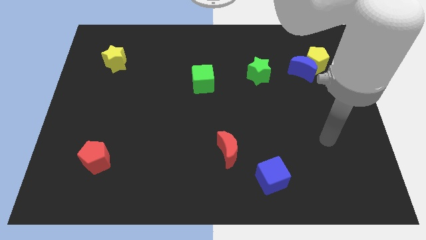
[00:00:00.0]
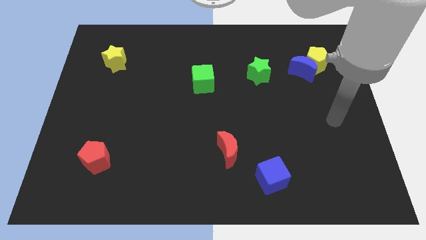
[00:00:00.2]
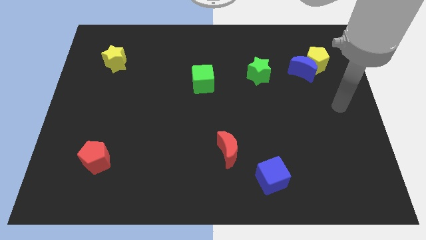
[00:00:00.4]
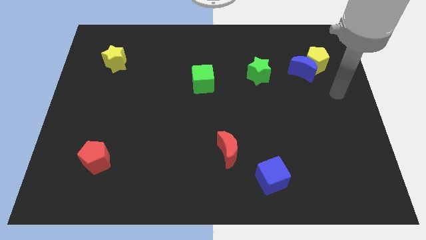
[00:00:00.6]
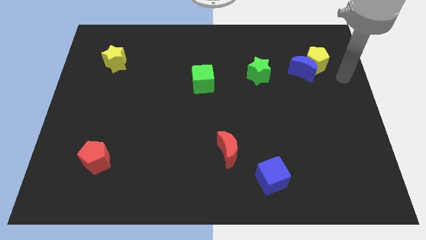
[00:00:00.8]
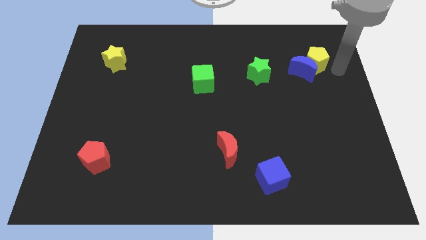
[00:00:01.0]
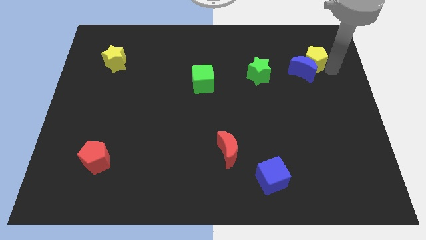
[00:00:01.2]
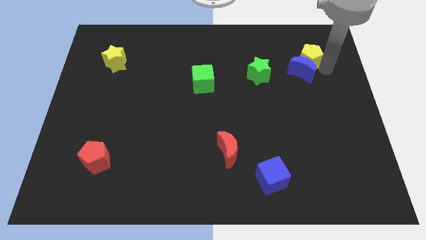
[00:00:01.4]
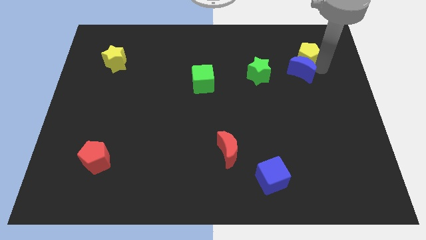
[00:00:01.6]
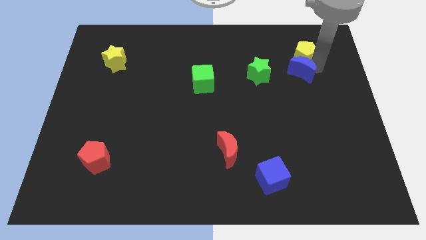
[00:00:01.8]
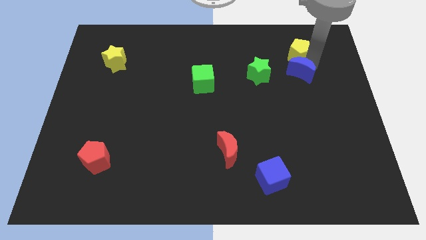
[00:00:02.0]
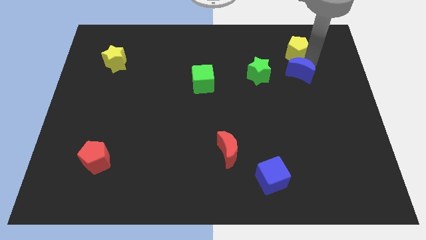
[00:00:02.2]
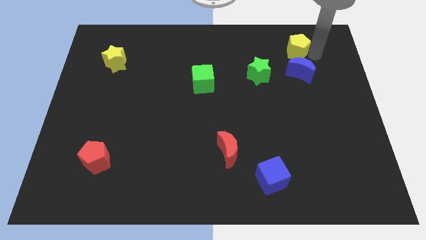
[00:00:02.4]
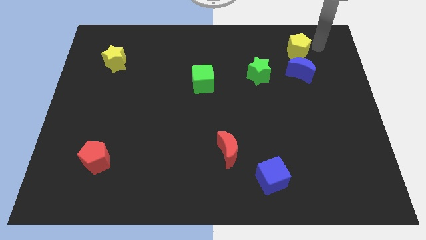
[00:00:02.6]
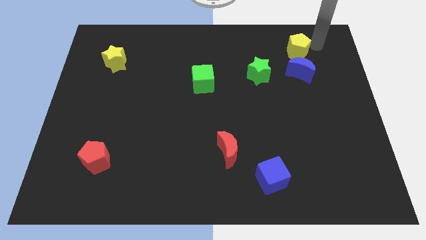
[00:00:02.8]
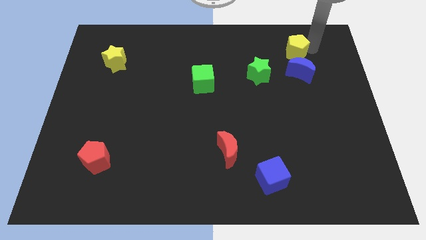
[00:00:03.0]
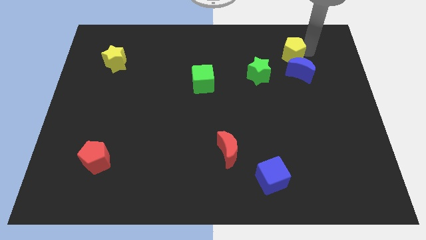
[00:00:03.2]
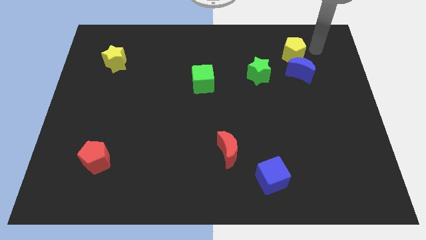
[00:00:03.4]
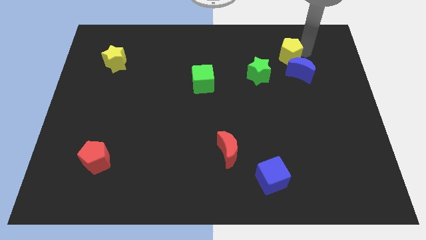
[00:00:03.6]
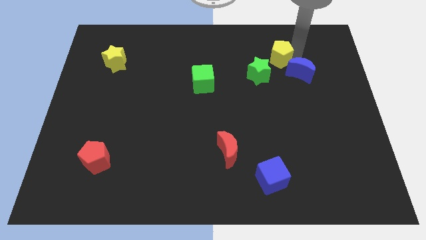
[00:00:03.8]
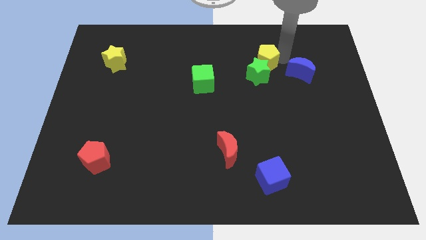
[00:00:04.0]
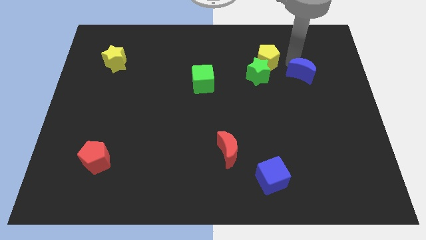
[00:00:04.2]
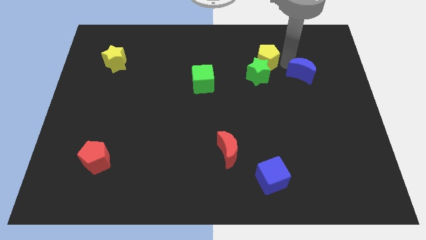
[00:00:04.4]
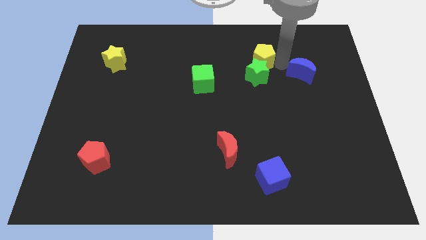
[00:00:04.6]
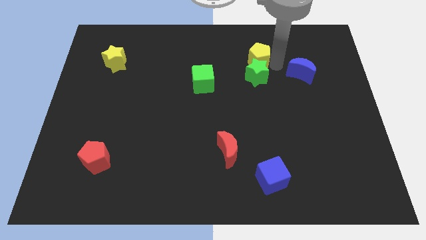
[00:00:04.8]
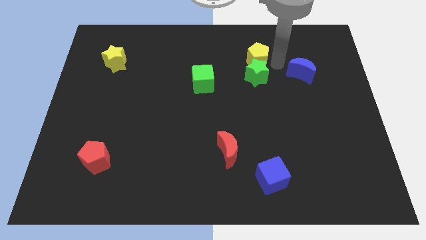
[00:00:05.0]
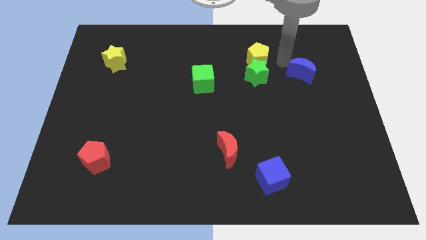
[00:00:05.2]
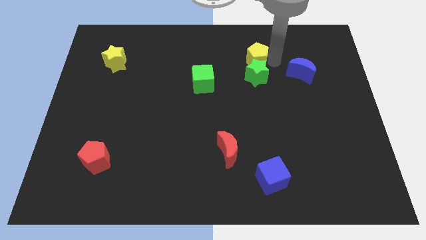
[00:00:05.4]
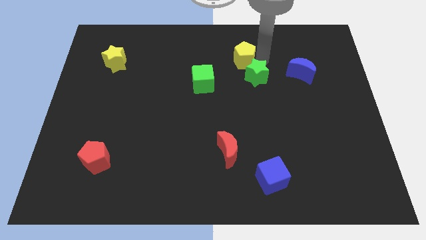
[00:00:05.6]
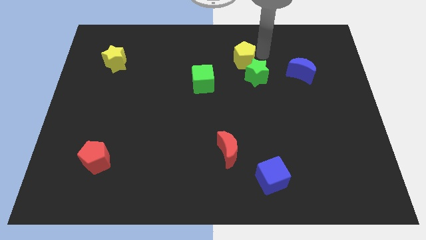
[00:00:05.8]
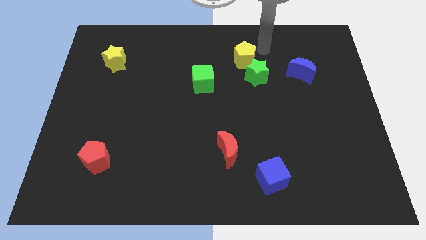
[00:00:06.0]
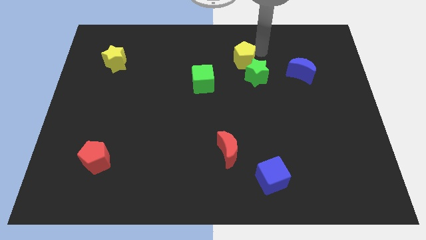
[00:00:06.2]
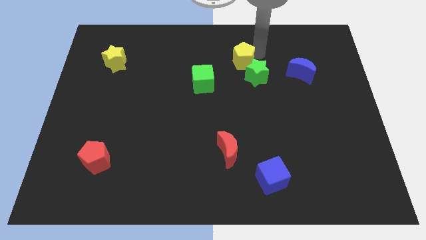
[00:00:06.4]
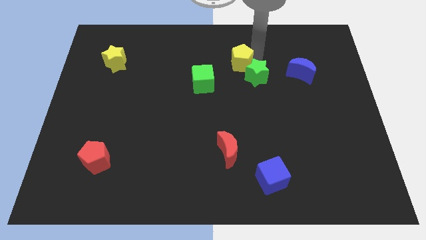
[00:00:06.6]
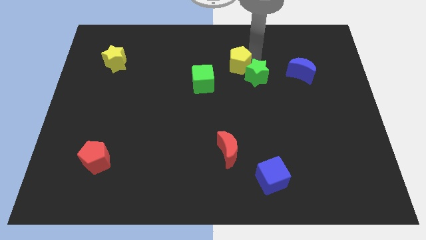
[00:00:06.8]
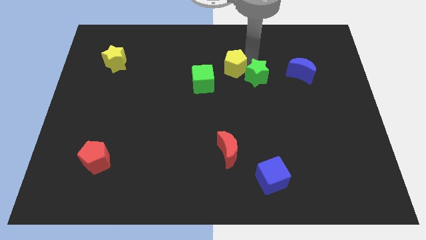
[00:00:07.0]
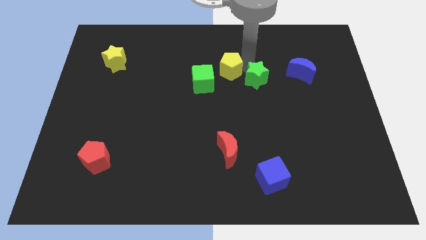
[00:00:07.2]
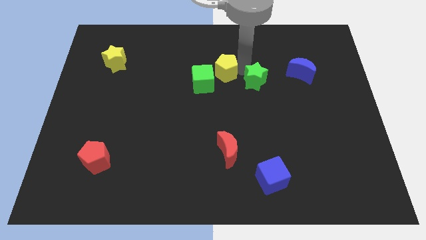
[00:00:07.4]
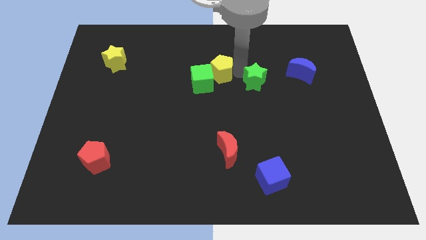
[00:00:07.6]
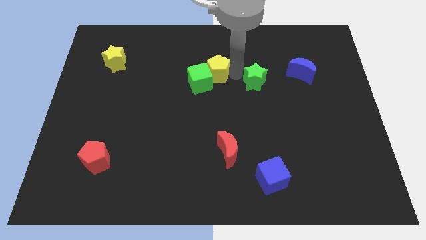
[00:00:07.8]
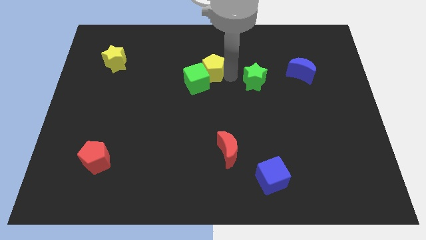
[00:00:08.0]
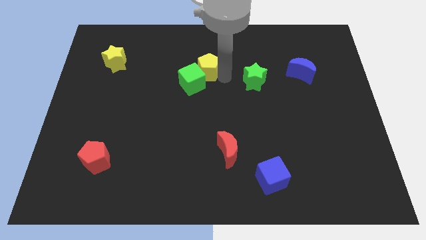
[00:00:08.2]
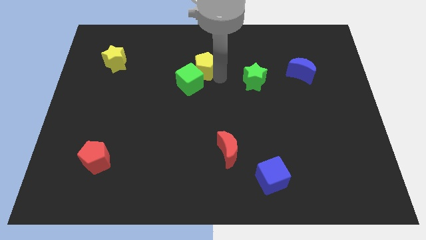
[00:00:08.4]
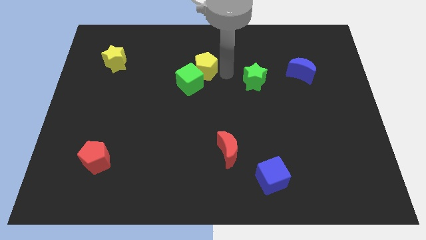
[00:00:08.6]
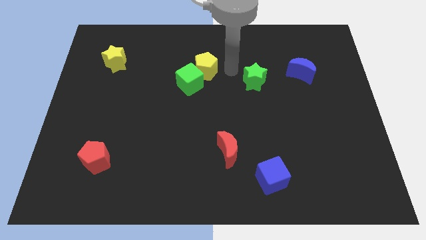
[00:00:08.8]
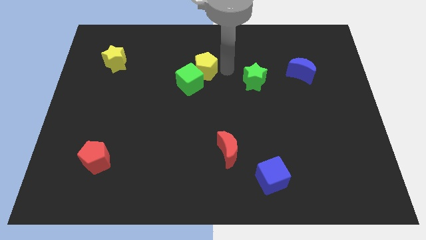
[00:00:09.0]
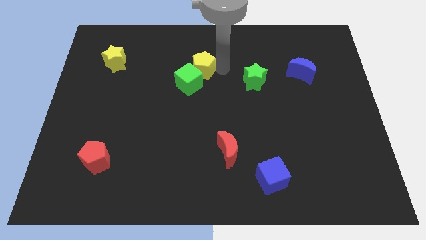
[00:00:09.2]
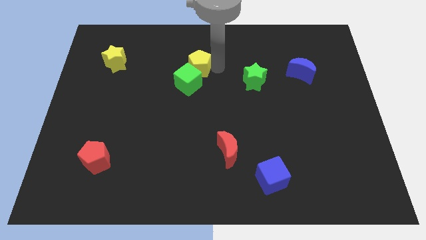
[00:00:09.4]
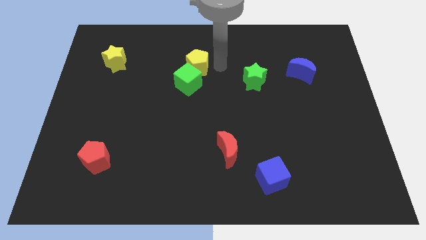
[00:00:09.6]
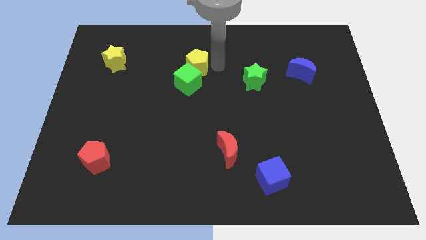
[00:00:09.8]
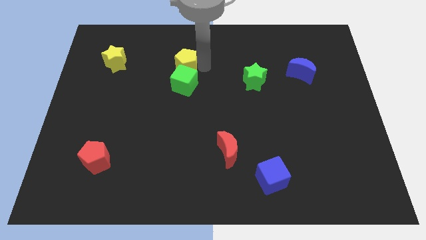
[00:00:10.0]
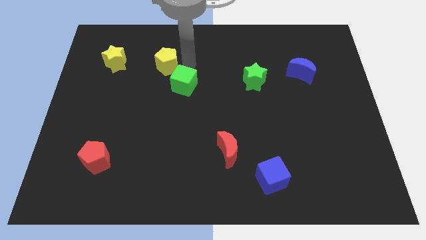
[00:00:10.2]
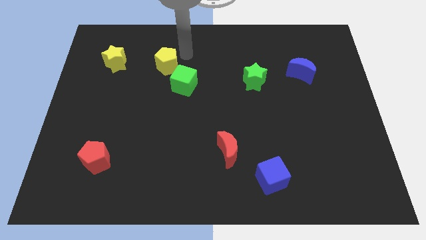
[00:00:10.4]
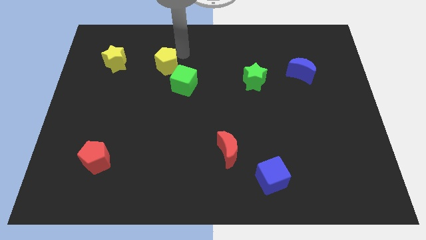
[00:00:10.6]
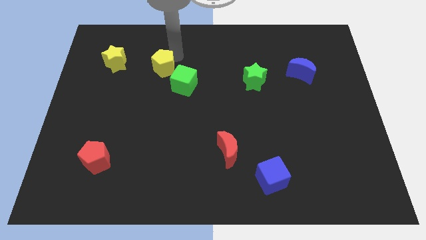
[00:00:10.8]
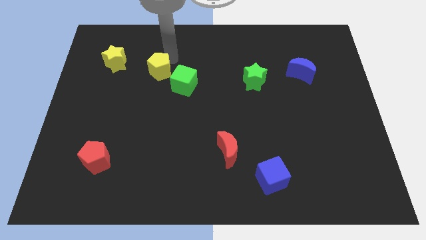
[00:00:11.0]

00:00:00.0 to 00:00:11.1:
move the yellow pentagon left of the green cube

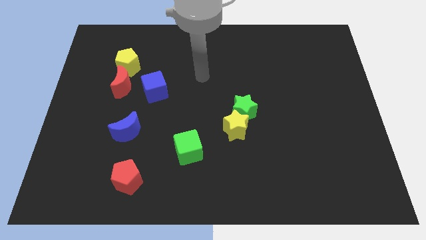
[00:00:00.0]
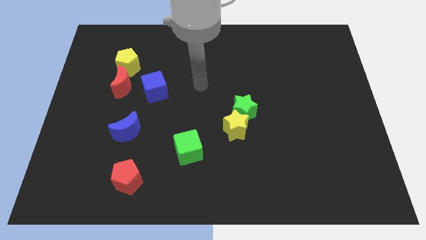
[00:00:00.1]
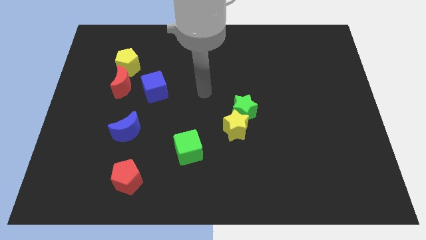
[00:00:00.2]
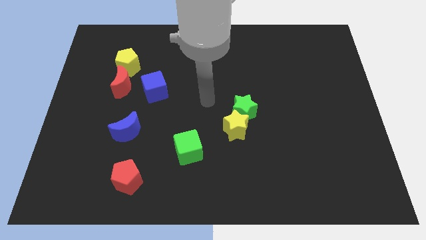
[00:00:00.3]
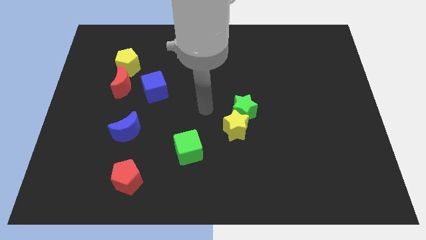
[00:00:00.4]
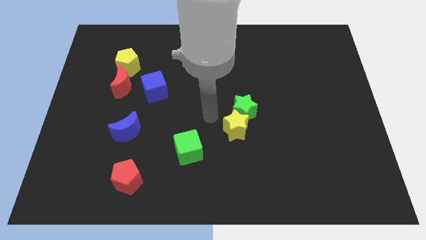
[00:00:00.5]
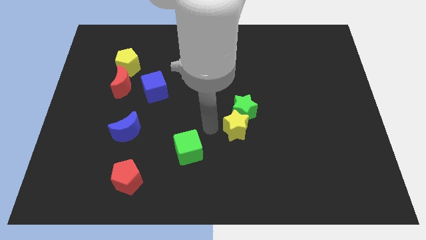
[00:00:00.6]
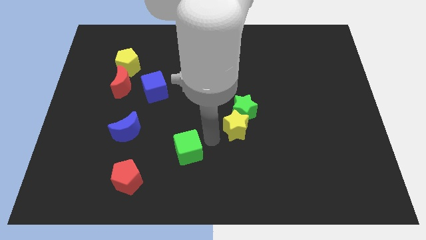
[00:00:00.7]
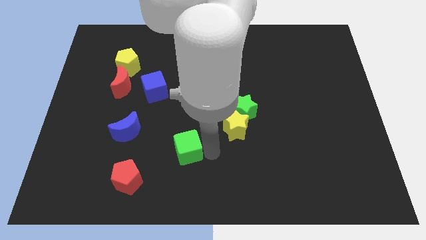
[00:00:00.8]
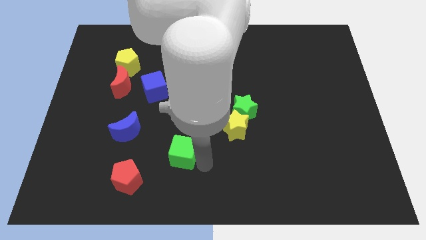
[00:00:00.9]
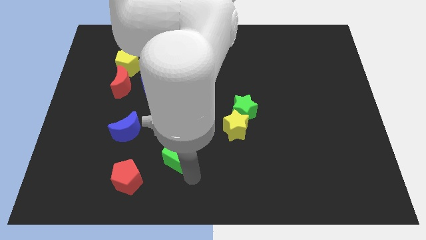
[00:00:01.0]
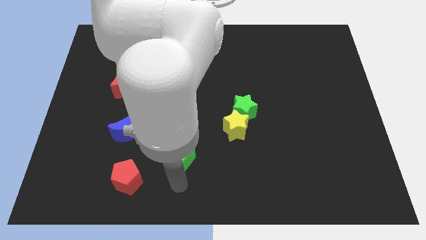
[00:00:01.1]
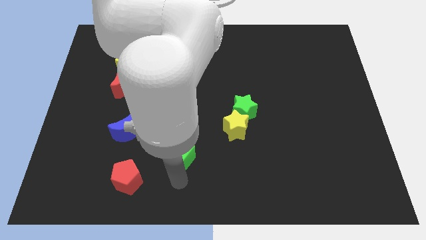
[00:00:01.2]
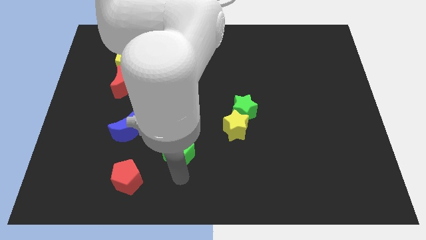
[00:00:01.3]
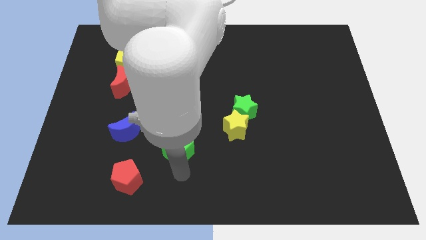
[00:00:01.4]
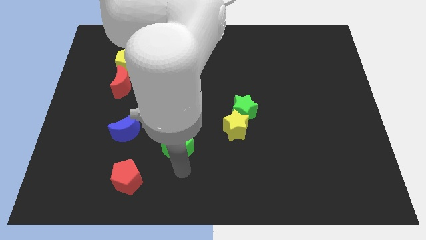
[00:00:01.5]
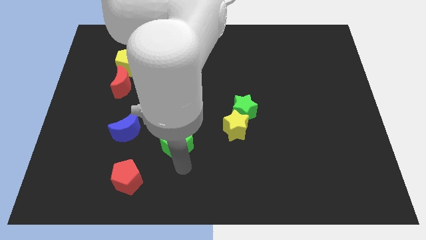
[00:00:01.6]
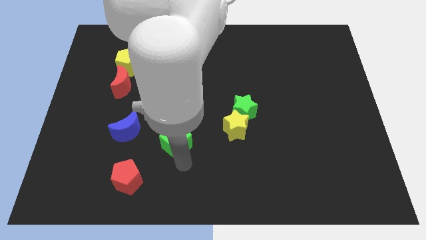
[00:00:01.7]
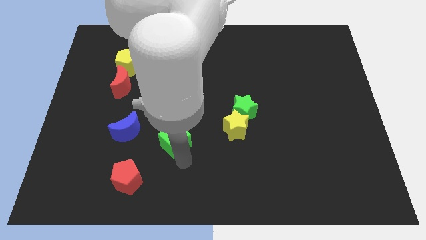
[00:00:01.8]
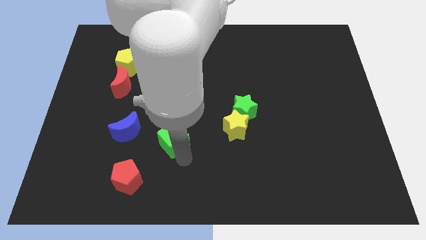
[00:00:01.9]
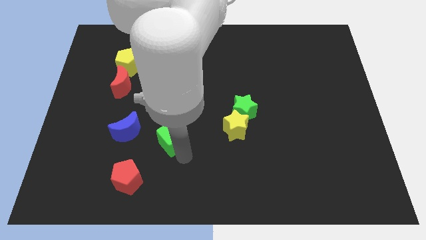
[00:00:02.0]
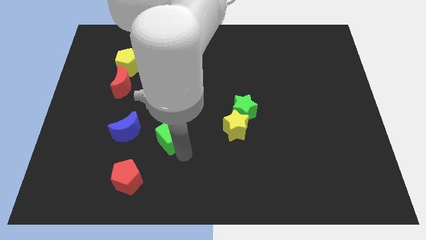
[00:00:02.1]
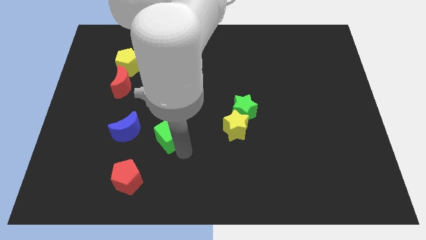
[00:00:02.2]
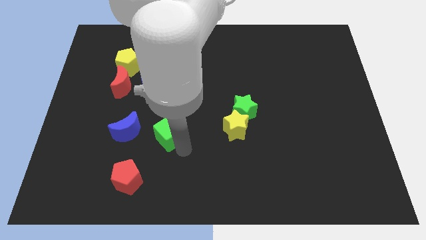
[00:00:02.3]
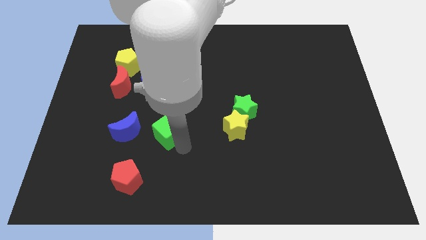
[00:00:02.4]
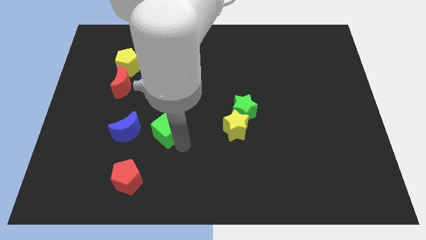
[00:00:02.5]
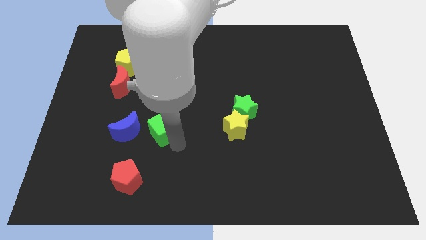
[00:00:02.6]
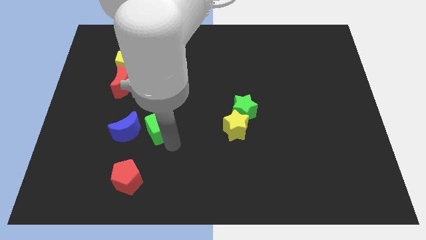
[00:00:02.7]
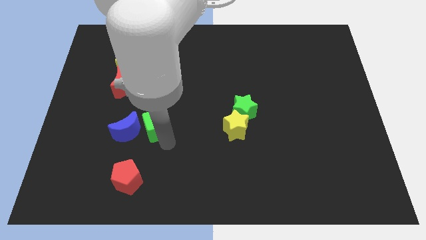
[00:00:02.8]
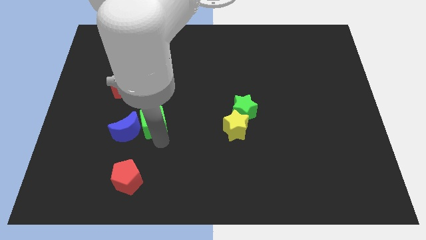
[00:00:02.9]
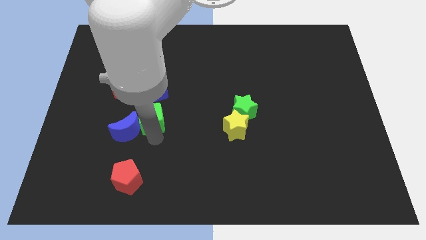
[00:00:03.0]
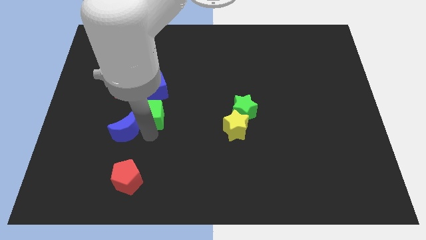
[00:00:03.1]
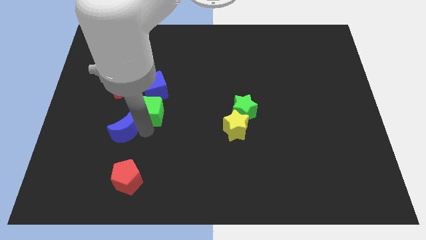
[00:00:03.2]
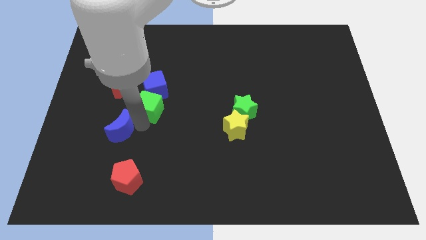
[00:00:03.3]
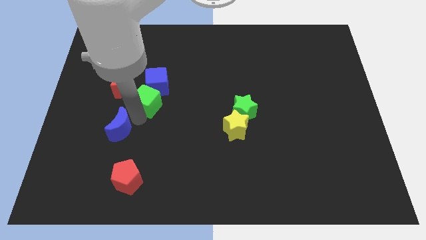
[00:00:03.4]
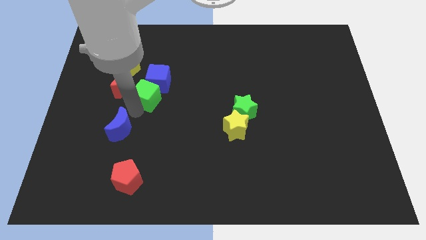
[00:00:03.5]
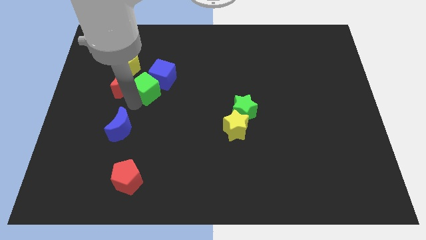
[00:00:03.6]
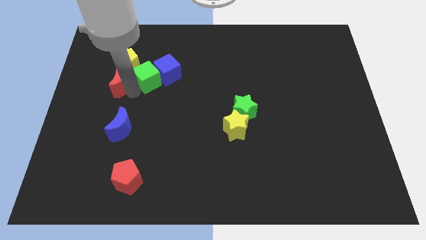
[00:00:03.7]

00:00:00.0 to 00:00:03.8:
push the green cube to the right side of the yellow pentagon
